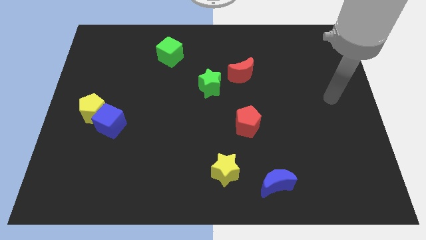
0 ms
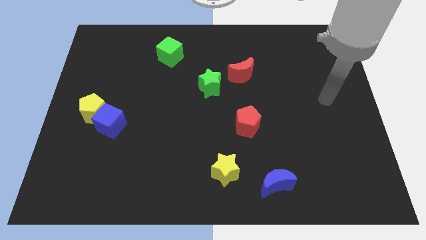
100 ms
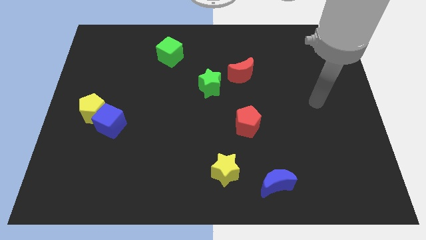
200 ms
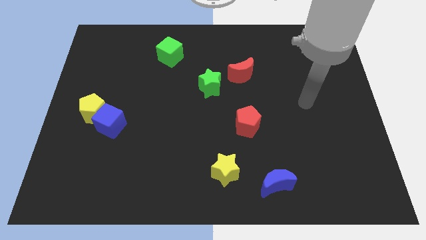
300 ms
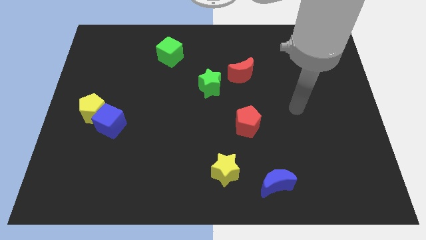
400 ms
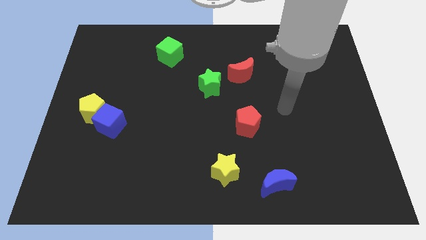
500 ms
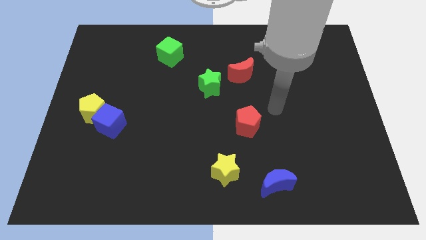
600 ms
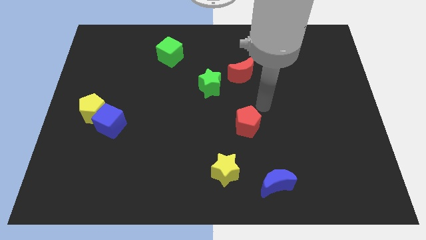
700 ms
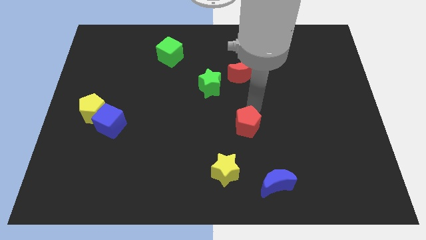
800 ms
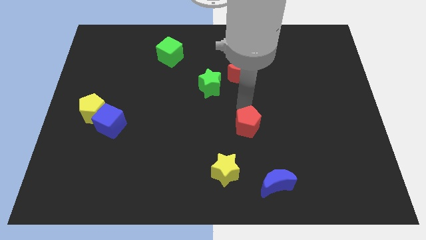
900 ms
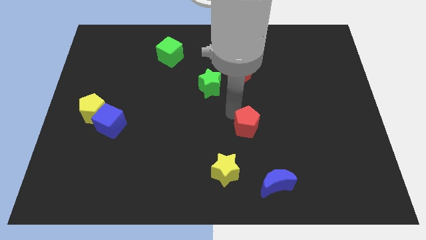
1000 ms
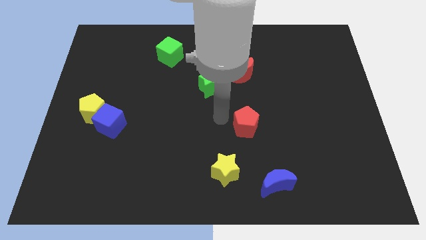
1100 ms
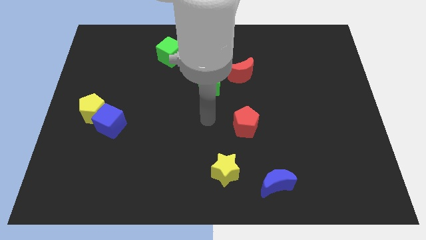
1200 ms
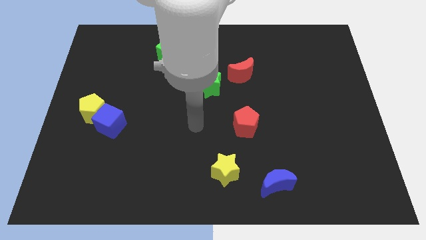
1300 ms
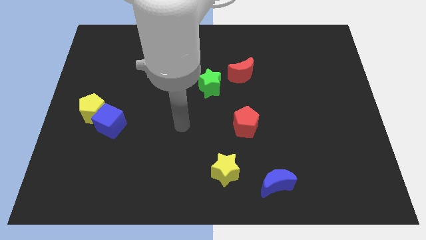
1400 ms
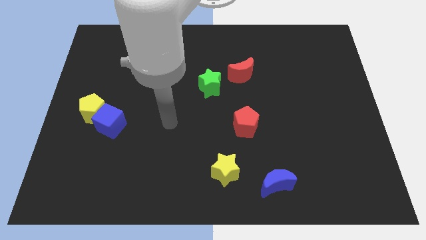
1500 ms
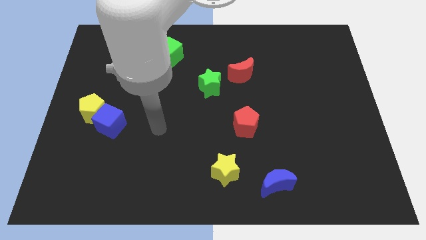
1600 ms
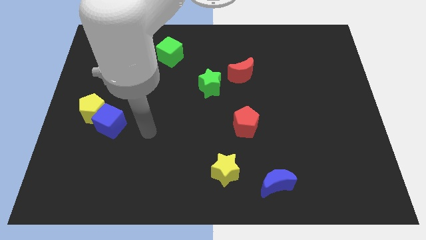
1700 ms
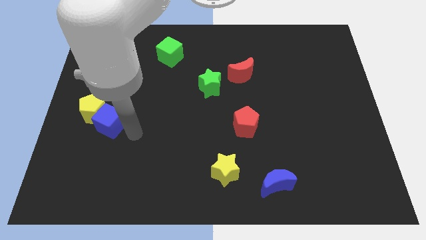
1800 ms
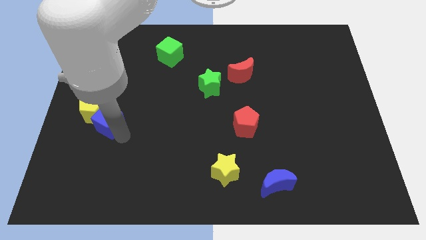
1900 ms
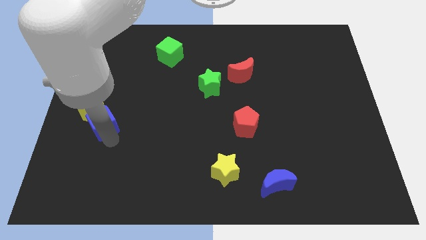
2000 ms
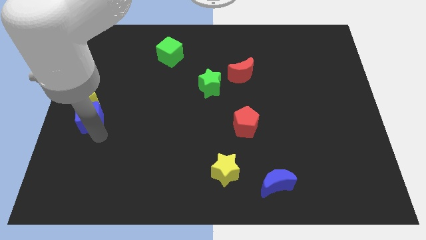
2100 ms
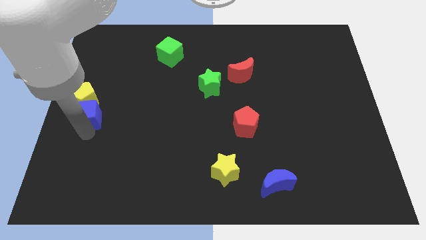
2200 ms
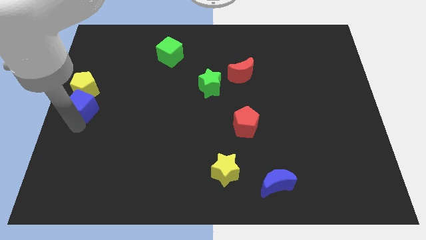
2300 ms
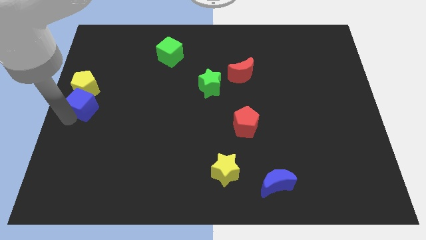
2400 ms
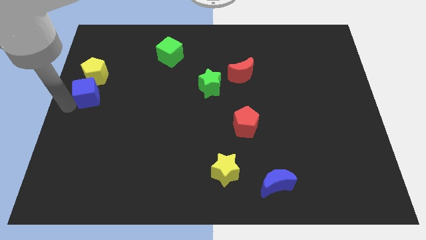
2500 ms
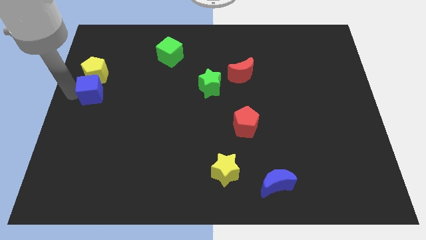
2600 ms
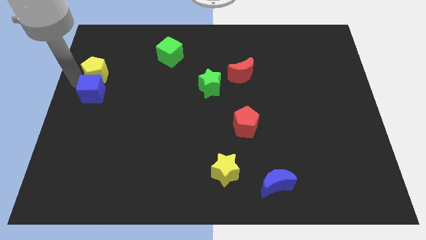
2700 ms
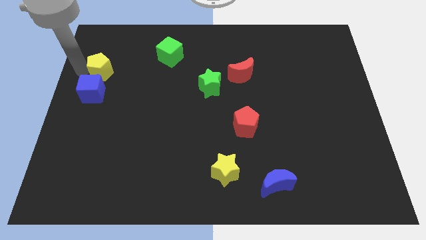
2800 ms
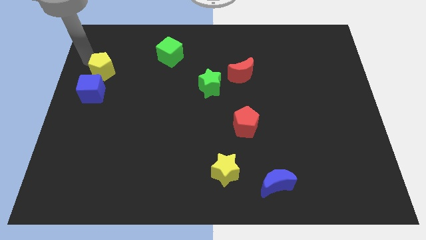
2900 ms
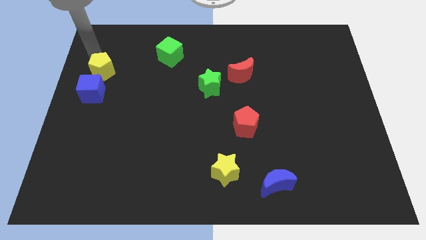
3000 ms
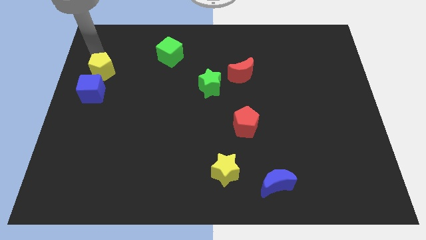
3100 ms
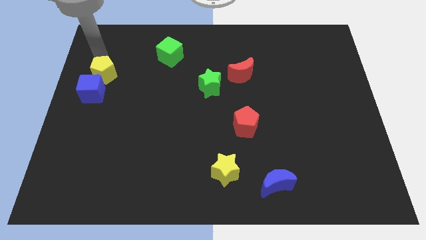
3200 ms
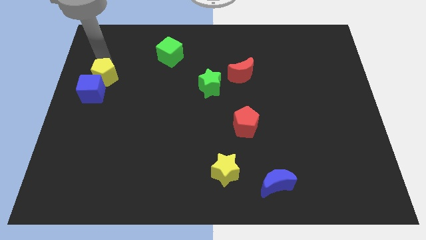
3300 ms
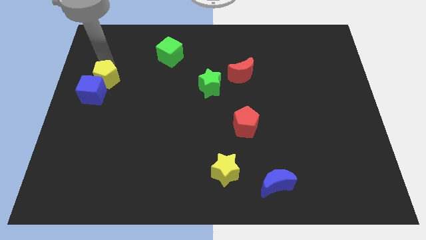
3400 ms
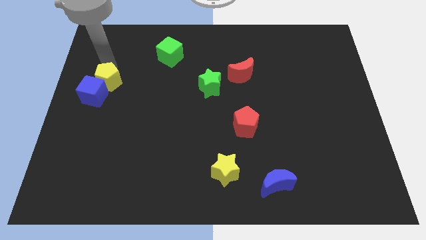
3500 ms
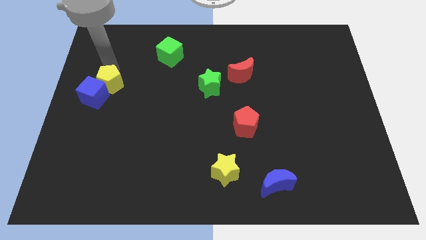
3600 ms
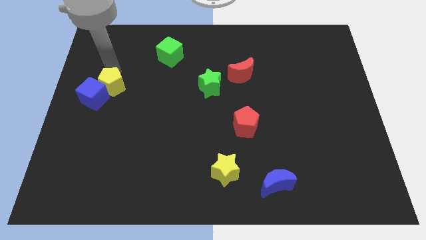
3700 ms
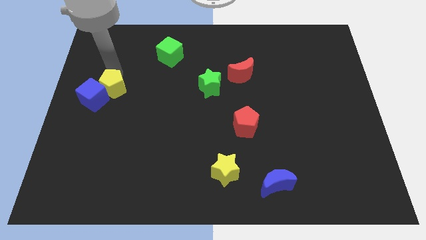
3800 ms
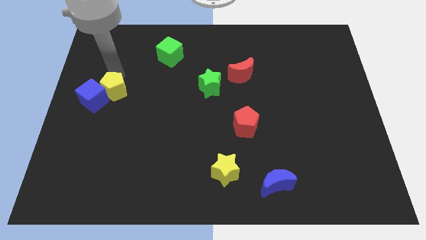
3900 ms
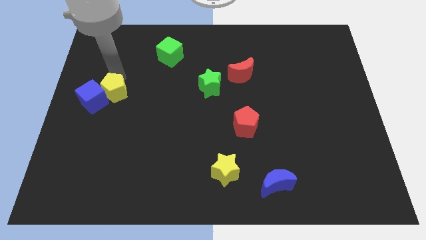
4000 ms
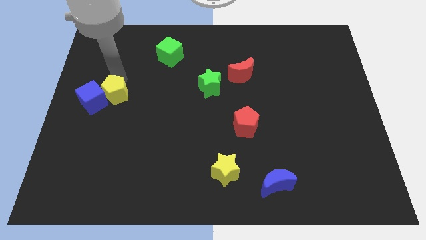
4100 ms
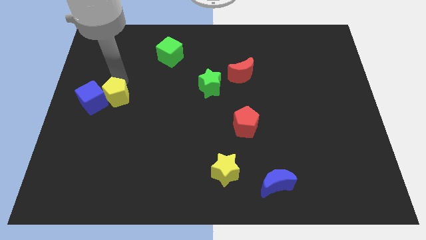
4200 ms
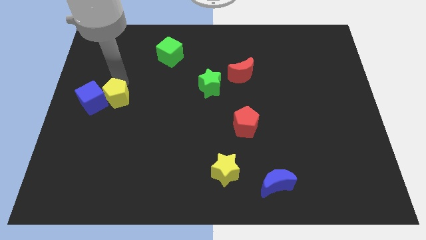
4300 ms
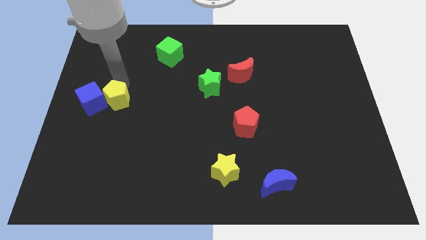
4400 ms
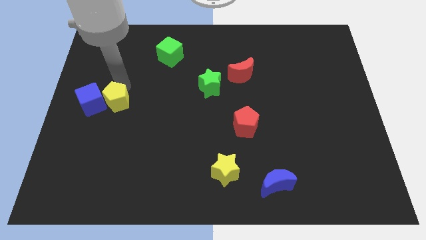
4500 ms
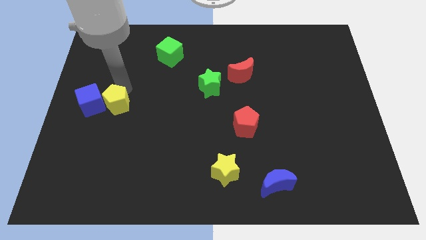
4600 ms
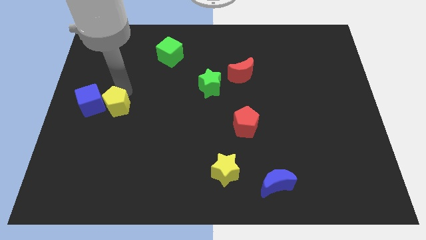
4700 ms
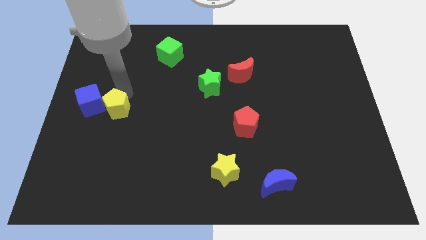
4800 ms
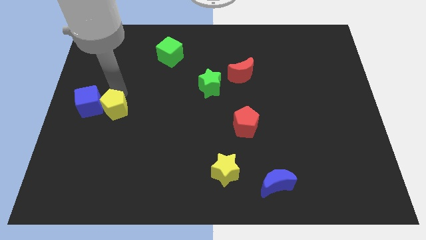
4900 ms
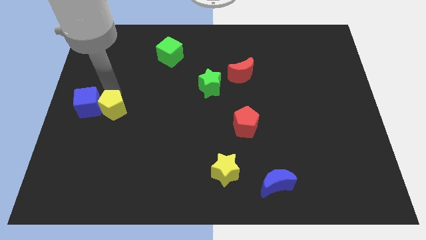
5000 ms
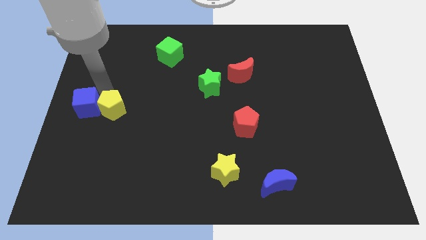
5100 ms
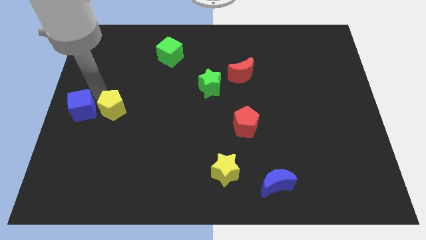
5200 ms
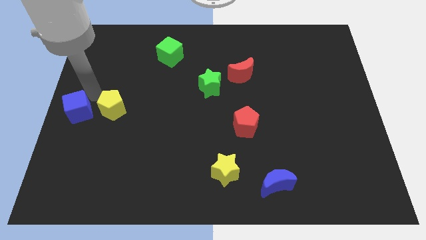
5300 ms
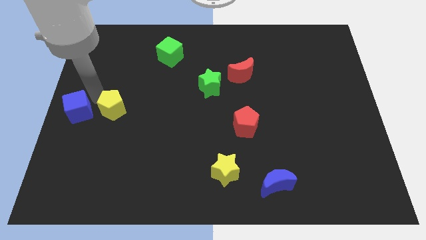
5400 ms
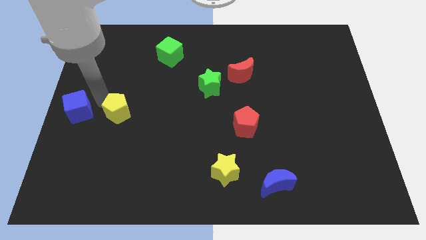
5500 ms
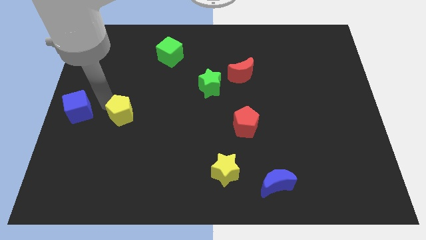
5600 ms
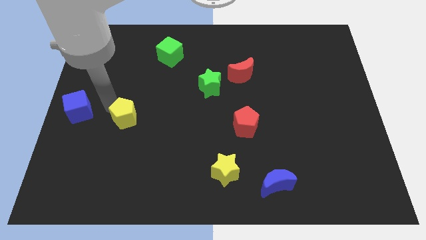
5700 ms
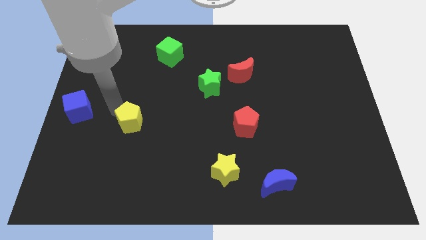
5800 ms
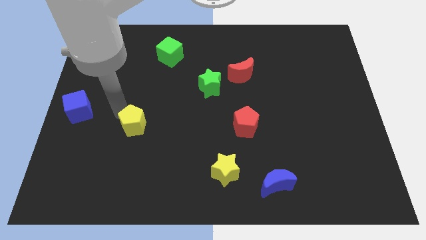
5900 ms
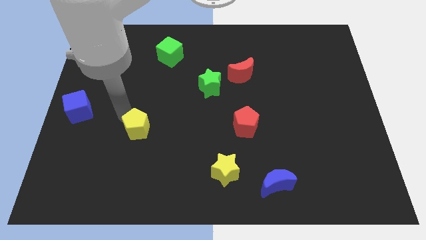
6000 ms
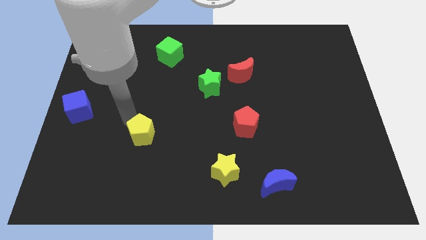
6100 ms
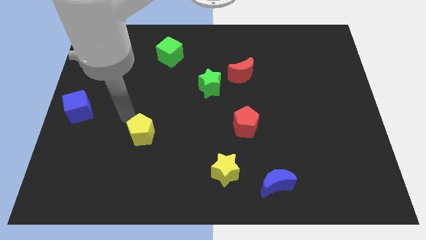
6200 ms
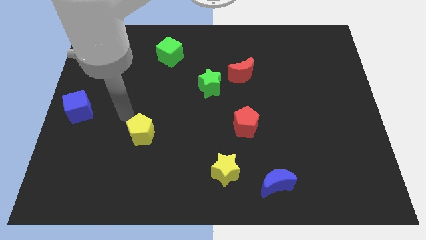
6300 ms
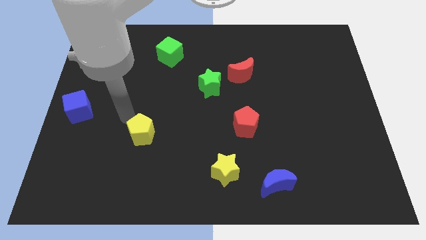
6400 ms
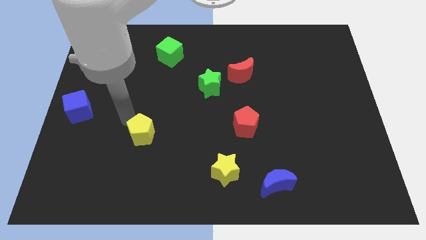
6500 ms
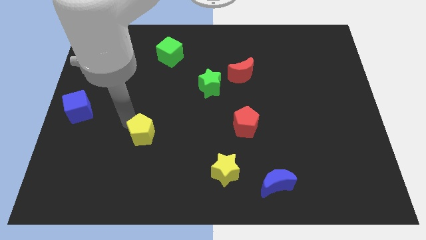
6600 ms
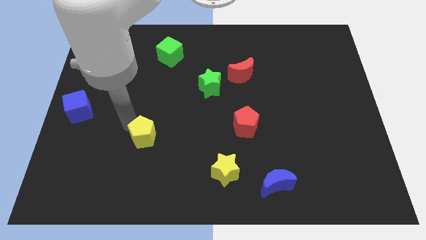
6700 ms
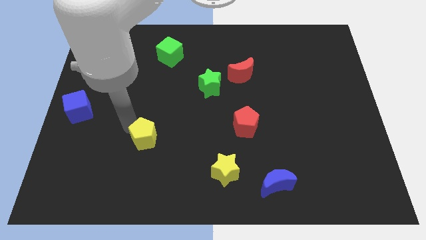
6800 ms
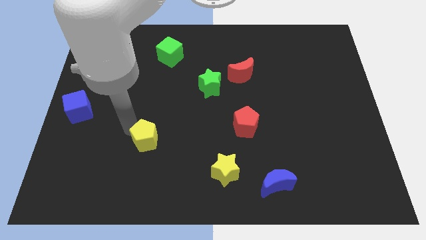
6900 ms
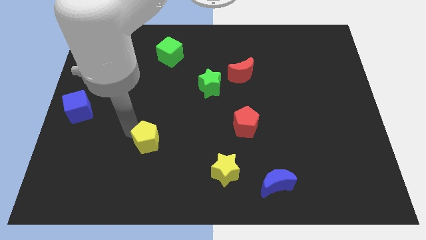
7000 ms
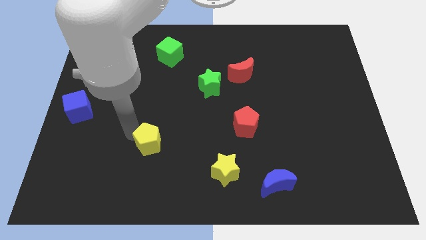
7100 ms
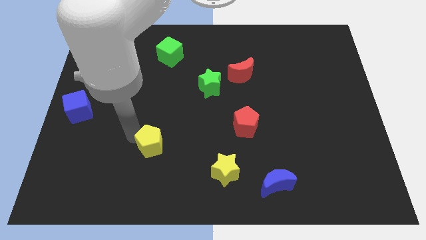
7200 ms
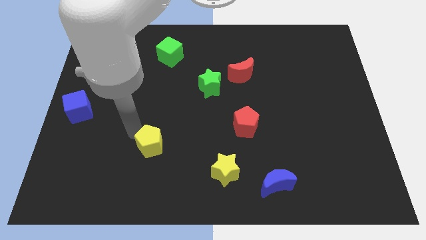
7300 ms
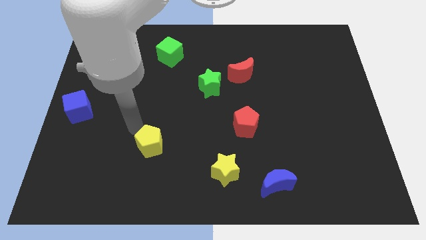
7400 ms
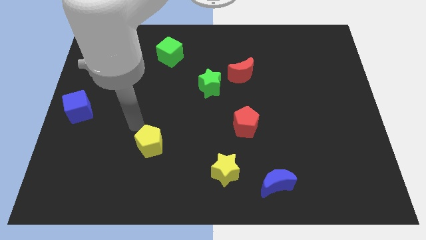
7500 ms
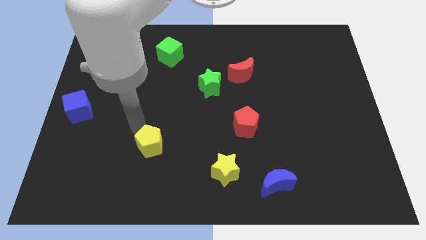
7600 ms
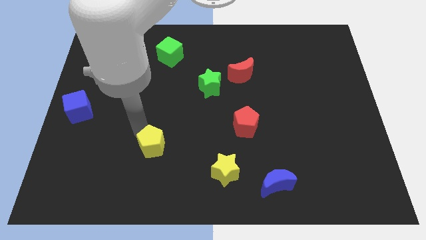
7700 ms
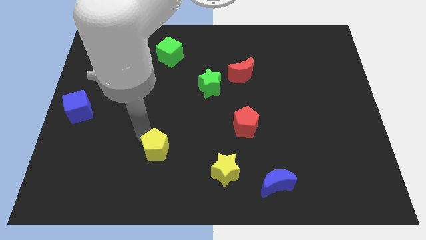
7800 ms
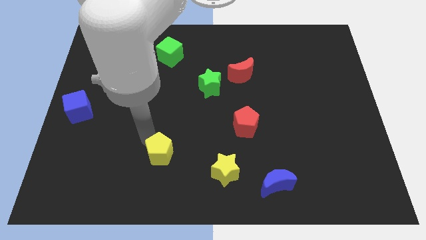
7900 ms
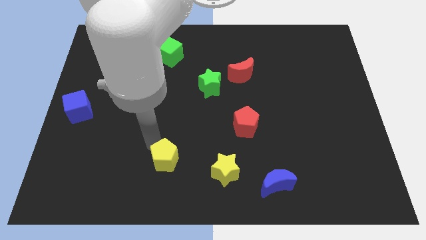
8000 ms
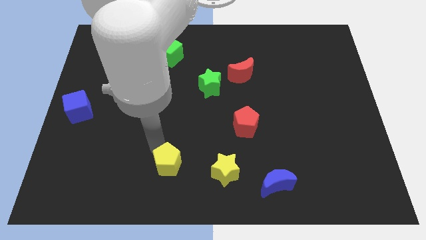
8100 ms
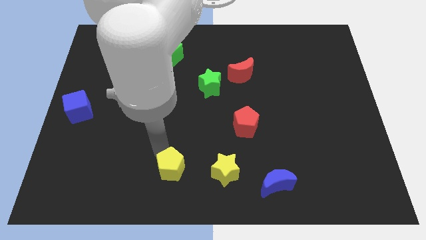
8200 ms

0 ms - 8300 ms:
put the yellow pentagon to the bottom side
